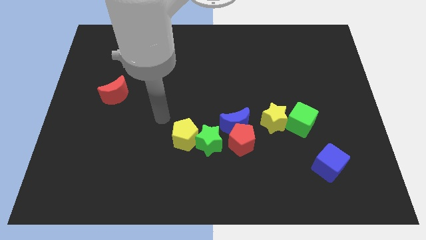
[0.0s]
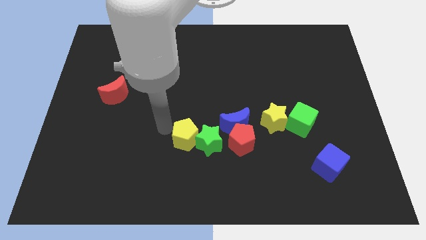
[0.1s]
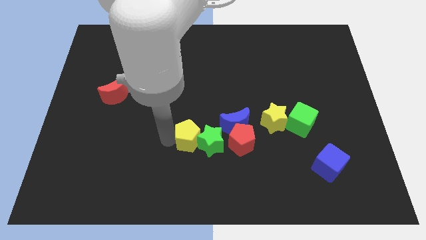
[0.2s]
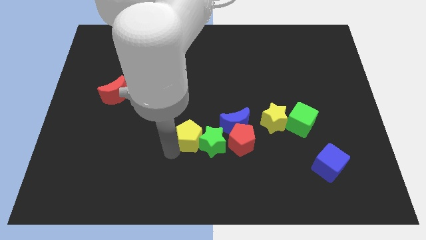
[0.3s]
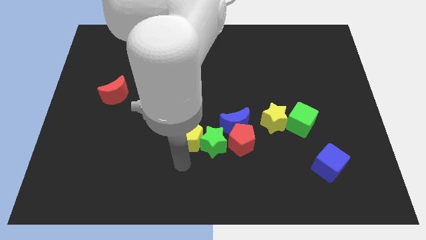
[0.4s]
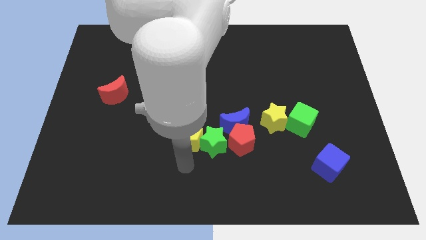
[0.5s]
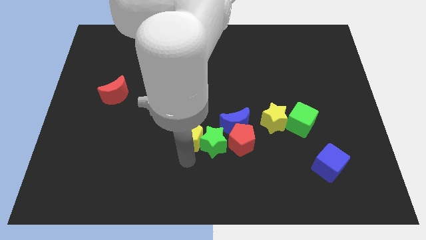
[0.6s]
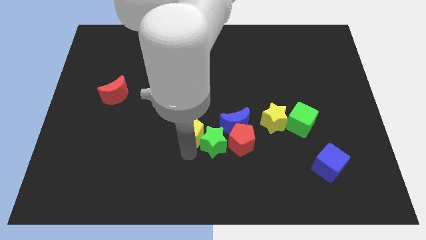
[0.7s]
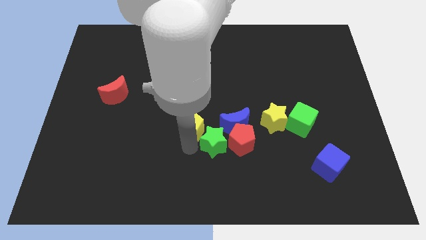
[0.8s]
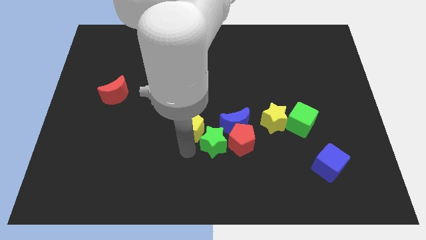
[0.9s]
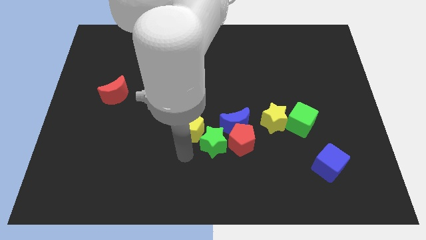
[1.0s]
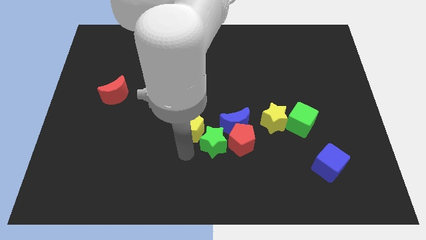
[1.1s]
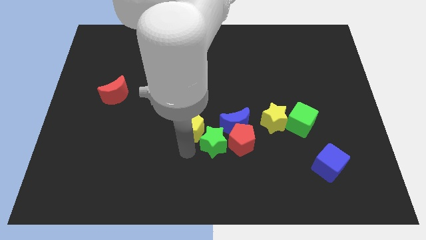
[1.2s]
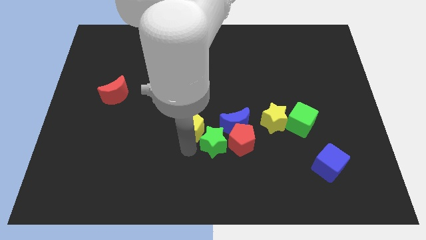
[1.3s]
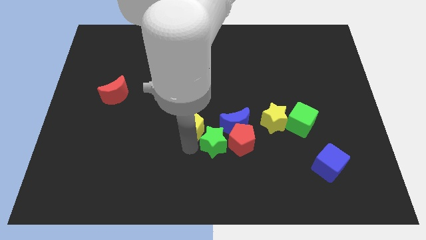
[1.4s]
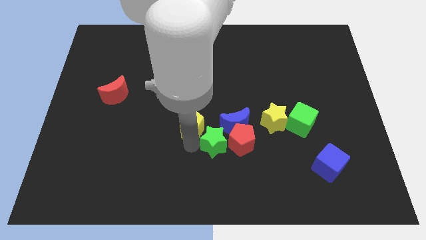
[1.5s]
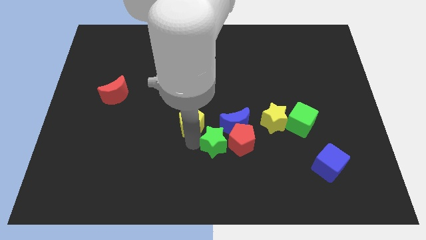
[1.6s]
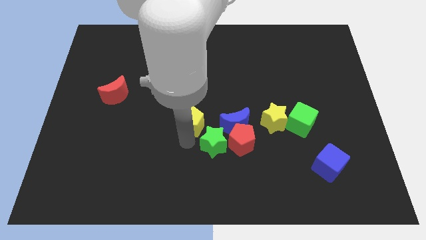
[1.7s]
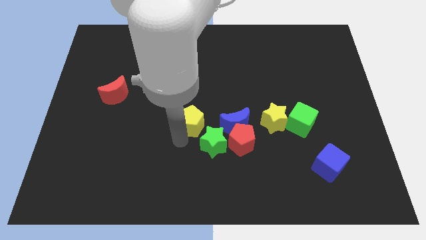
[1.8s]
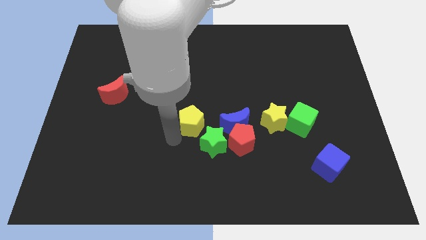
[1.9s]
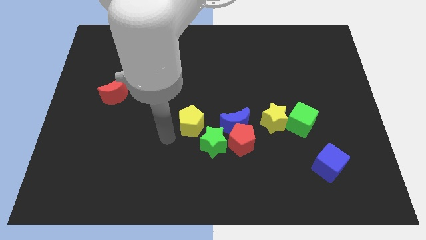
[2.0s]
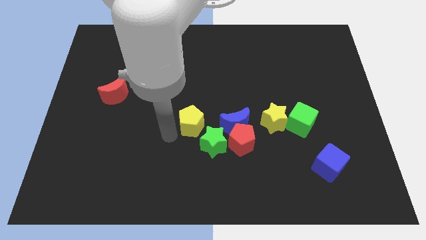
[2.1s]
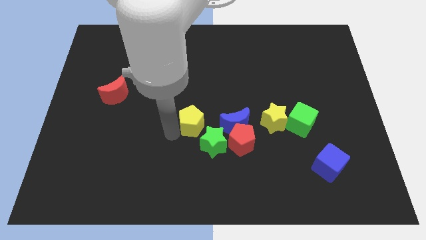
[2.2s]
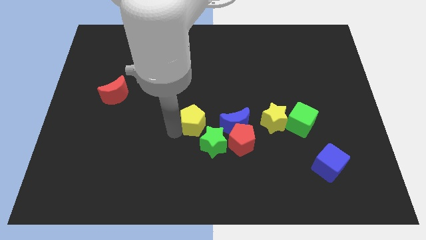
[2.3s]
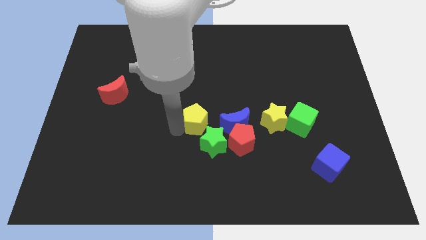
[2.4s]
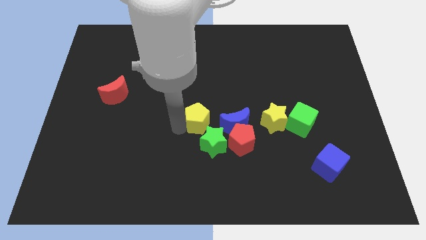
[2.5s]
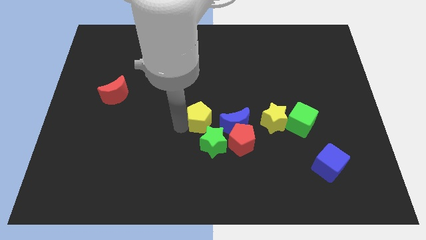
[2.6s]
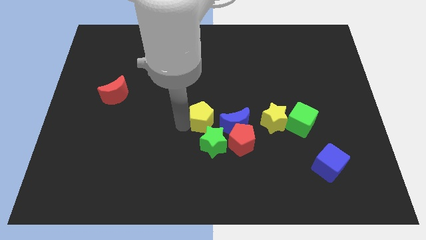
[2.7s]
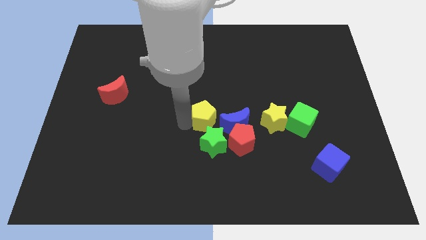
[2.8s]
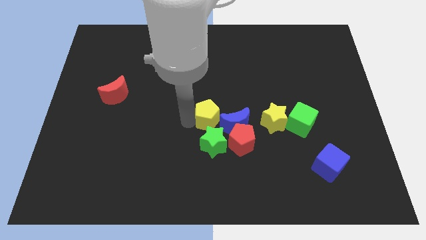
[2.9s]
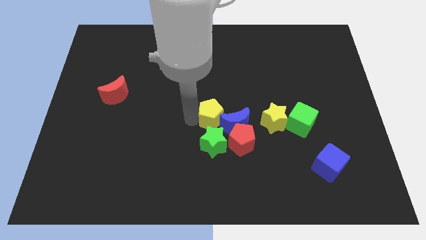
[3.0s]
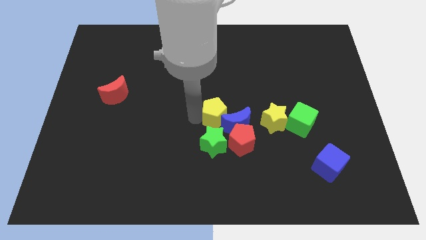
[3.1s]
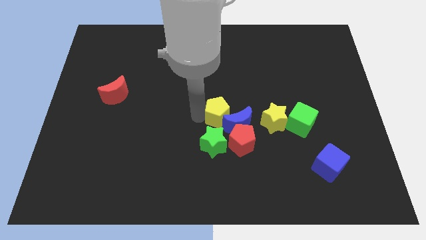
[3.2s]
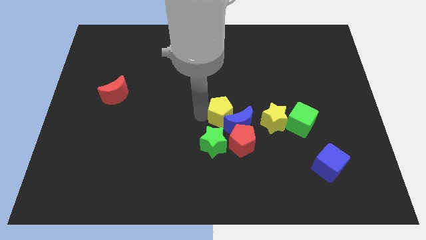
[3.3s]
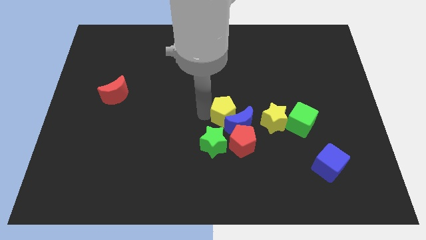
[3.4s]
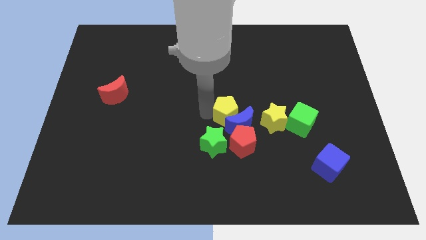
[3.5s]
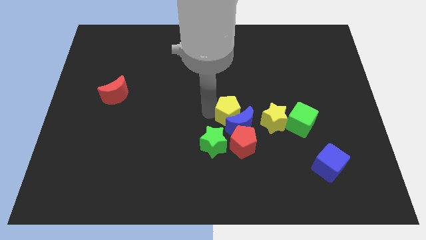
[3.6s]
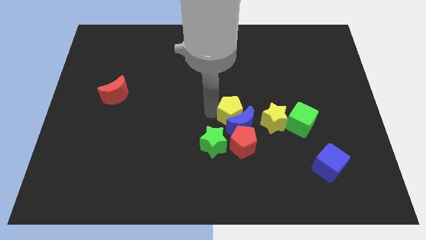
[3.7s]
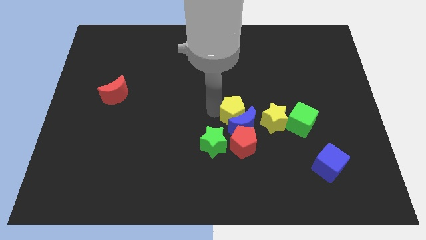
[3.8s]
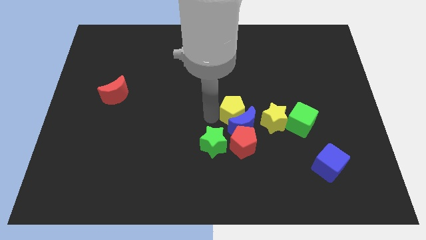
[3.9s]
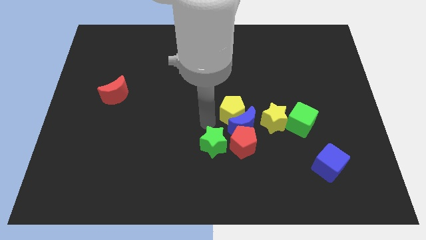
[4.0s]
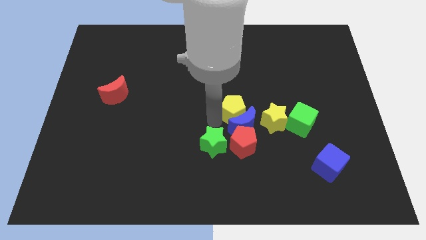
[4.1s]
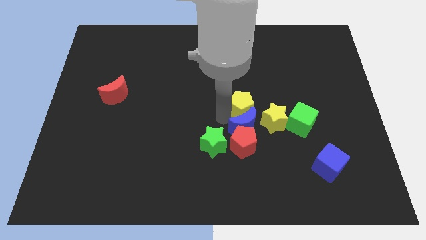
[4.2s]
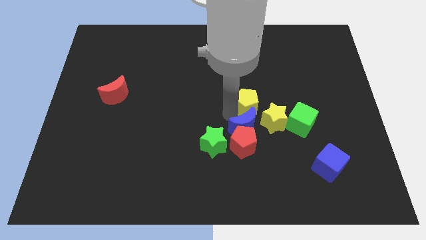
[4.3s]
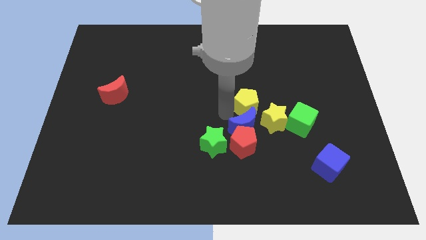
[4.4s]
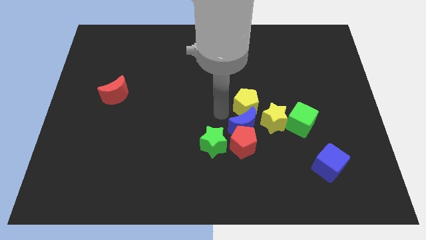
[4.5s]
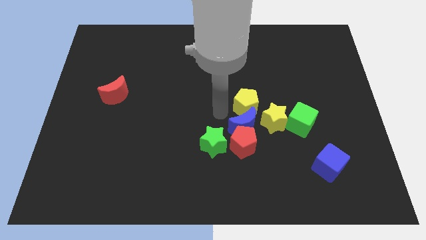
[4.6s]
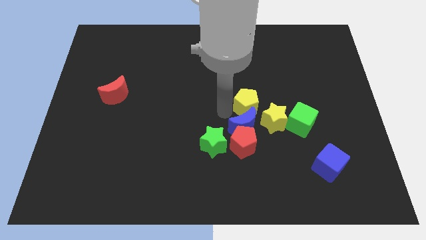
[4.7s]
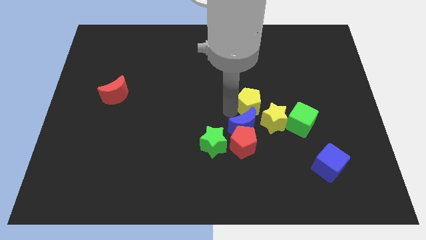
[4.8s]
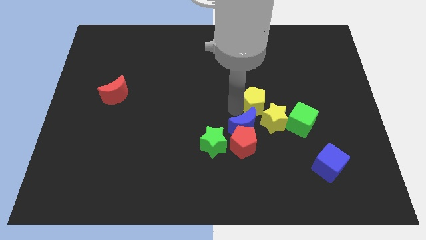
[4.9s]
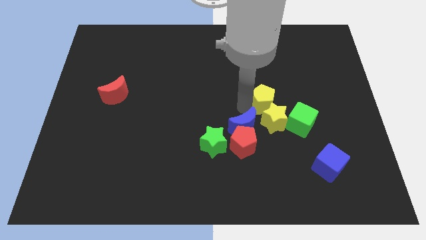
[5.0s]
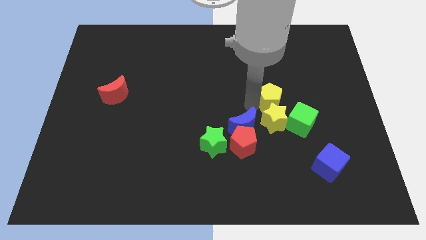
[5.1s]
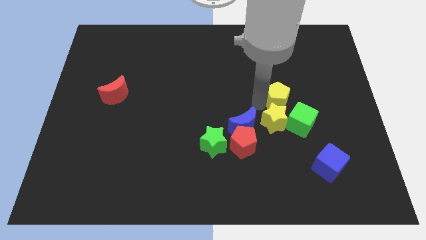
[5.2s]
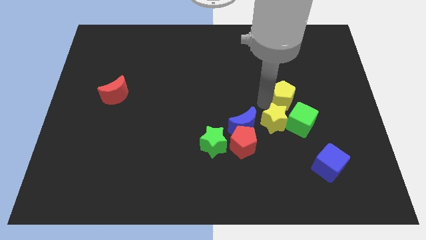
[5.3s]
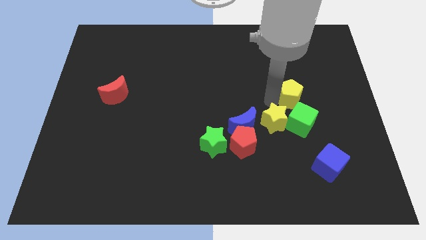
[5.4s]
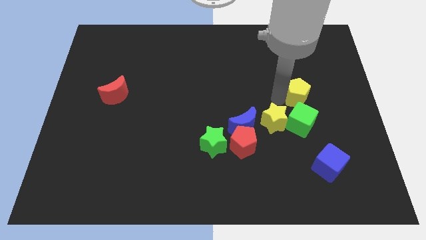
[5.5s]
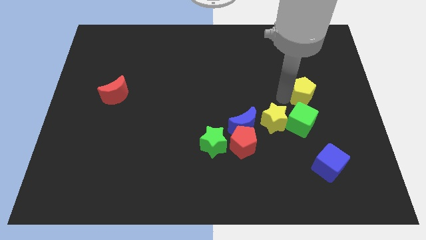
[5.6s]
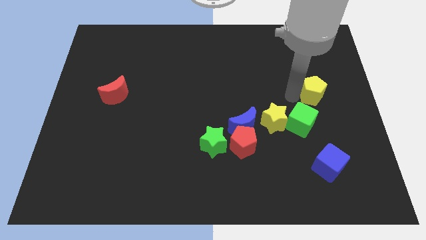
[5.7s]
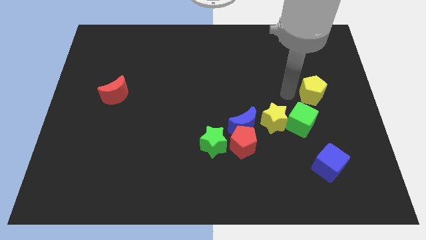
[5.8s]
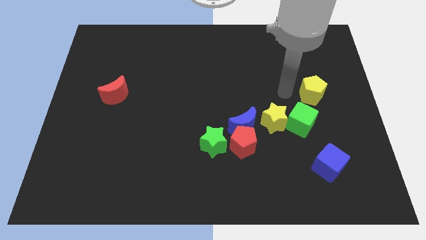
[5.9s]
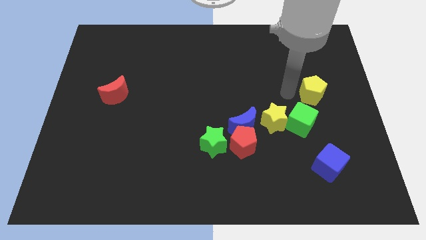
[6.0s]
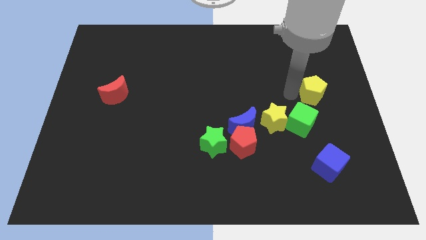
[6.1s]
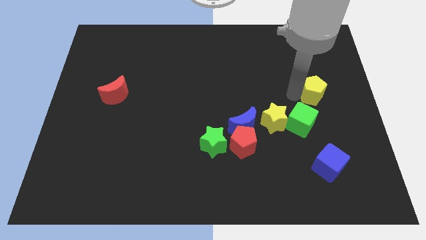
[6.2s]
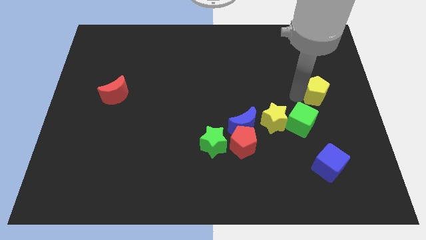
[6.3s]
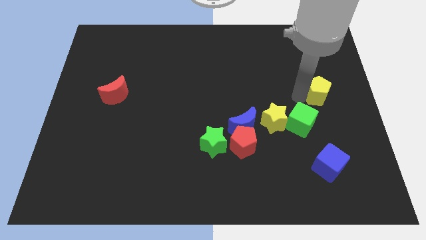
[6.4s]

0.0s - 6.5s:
push the yellow pentagon to the right side

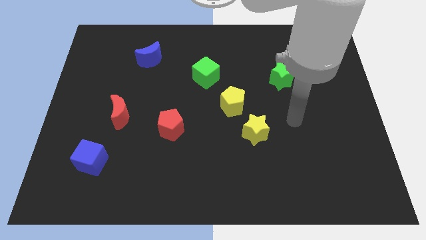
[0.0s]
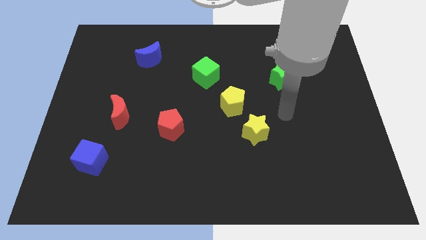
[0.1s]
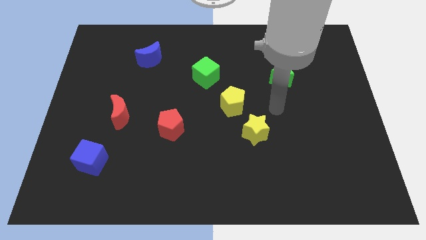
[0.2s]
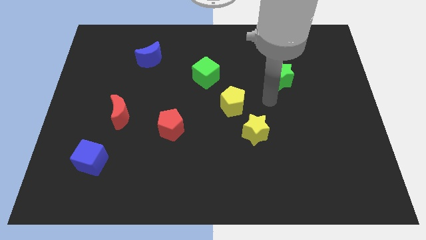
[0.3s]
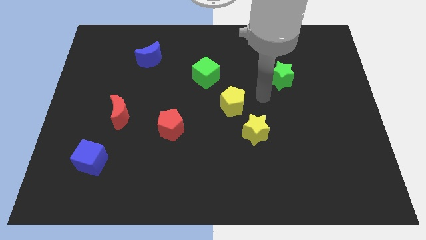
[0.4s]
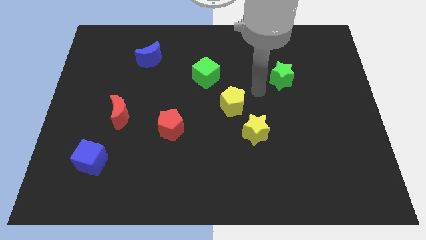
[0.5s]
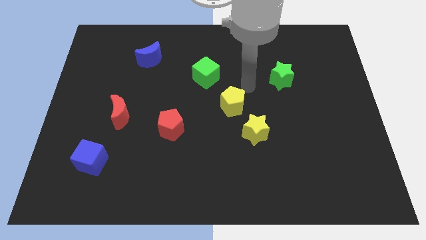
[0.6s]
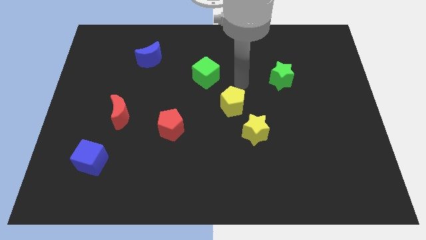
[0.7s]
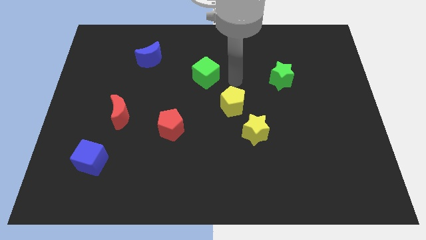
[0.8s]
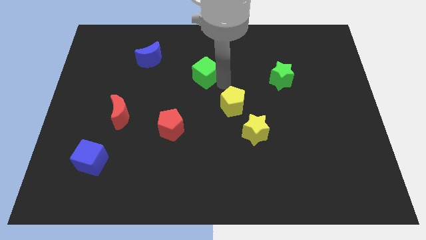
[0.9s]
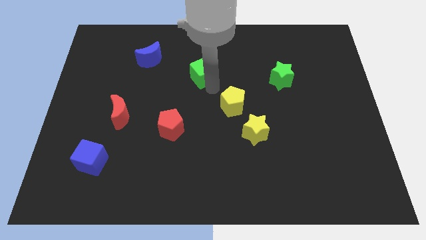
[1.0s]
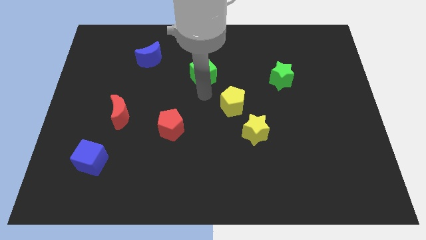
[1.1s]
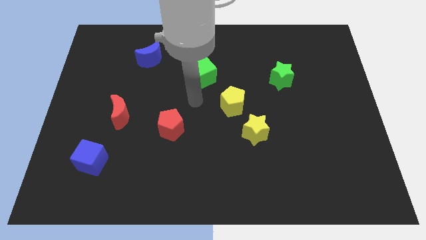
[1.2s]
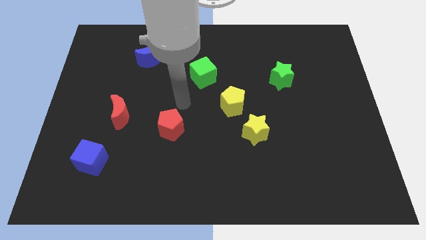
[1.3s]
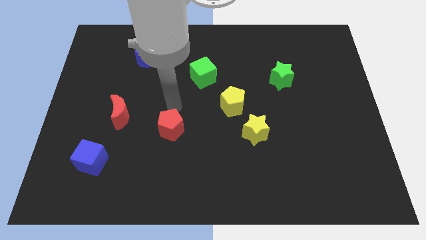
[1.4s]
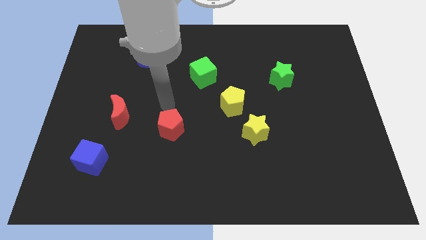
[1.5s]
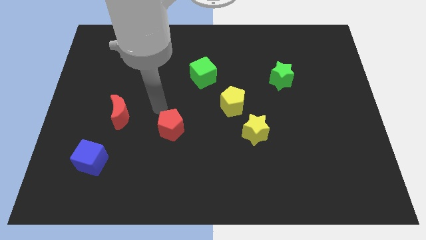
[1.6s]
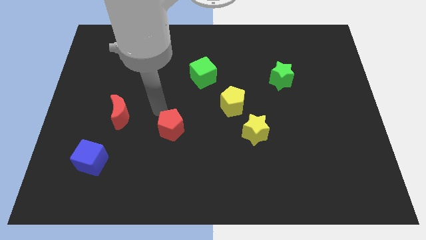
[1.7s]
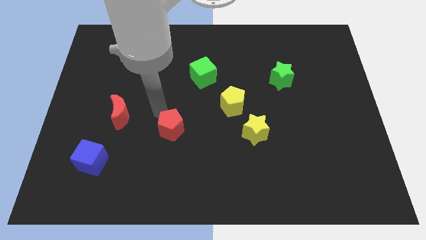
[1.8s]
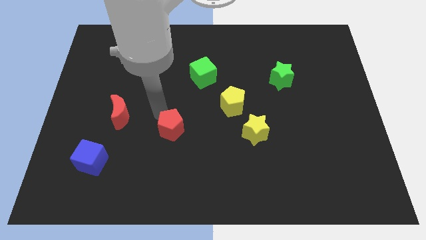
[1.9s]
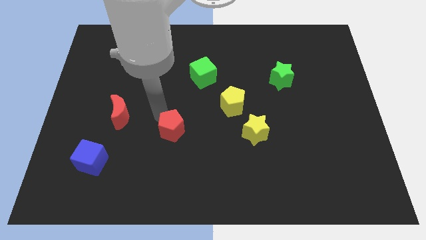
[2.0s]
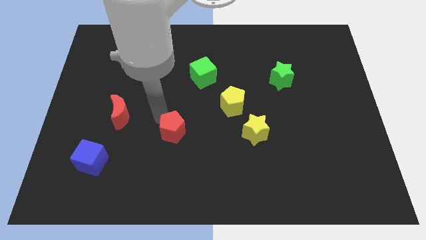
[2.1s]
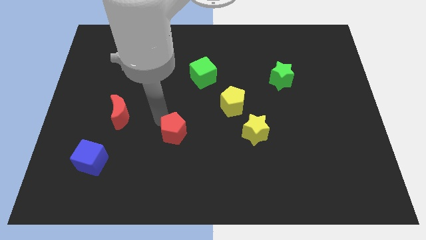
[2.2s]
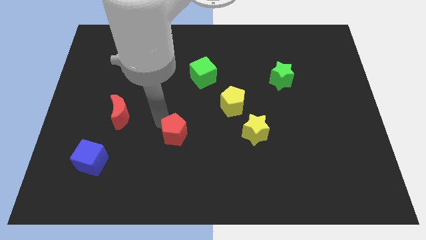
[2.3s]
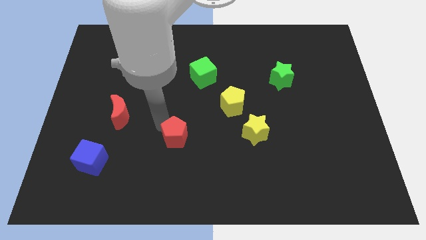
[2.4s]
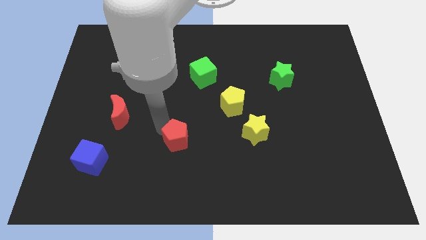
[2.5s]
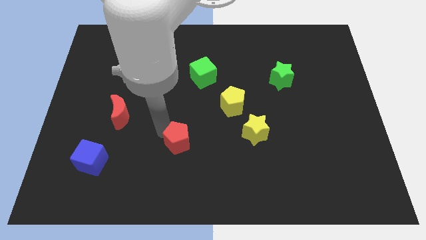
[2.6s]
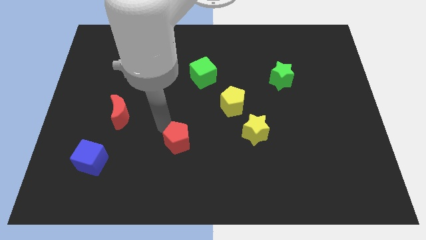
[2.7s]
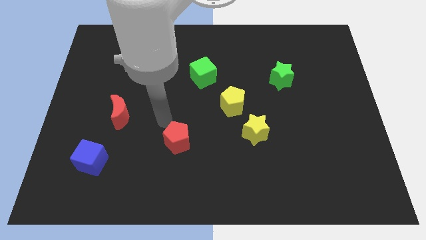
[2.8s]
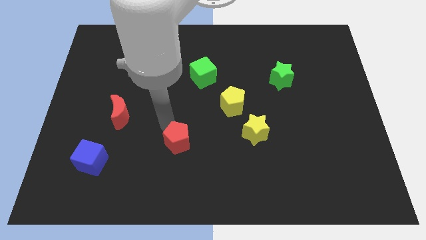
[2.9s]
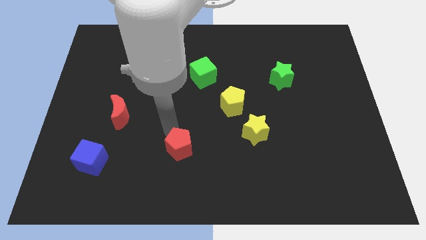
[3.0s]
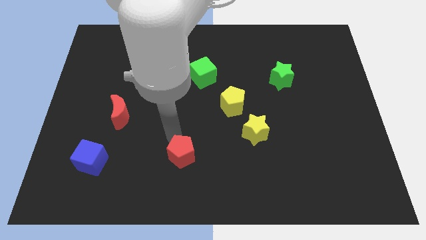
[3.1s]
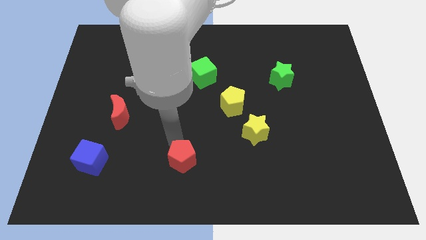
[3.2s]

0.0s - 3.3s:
move the red pentagon to the bottom
